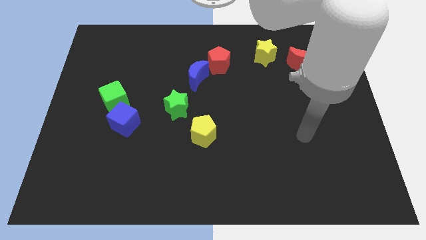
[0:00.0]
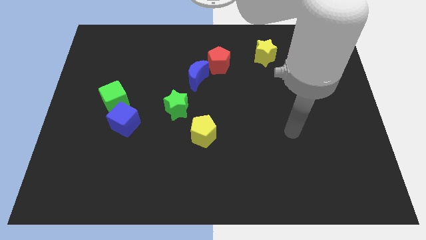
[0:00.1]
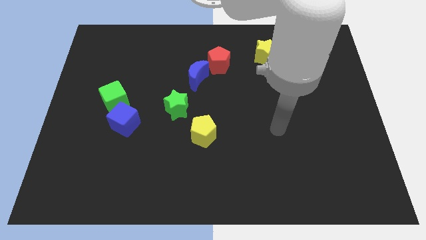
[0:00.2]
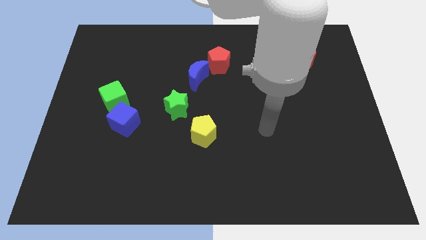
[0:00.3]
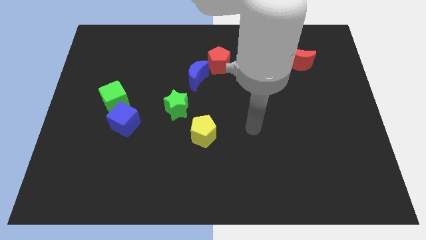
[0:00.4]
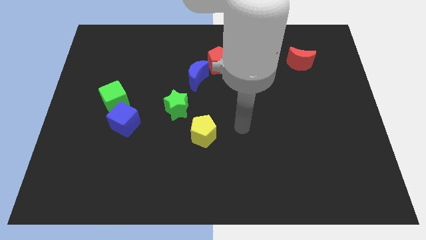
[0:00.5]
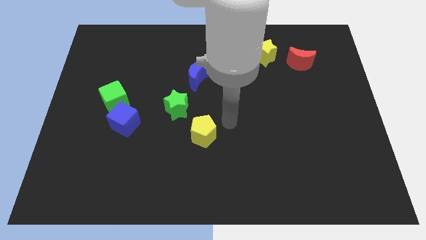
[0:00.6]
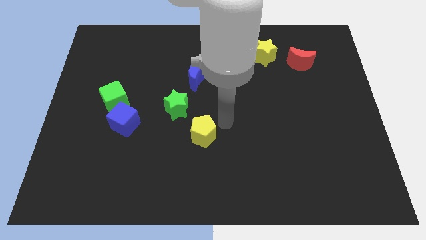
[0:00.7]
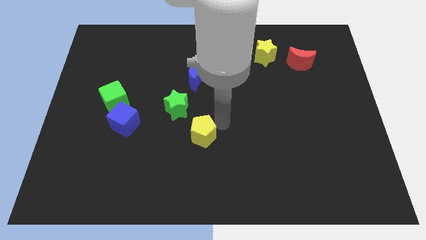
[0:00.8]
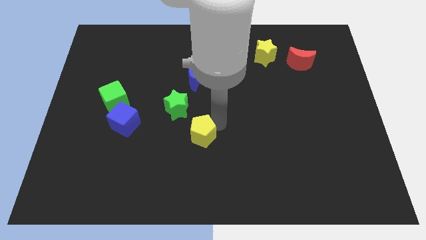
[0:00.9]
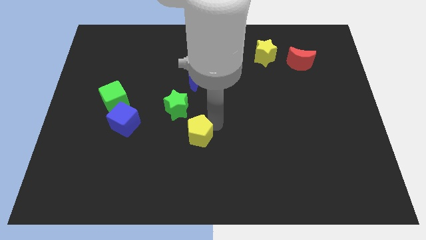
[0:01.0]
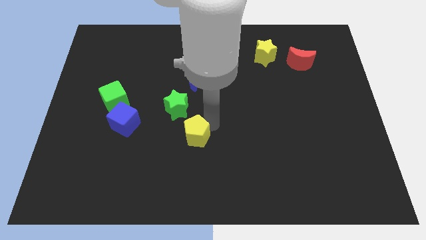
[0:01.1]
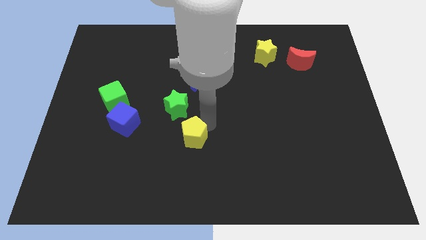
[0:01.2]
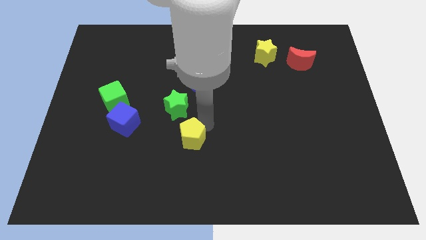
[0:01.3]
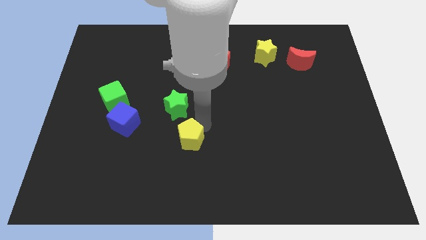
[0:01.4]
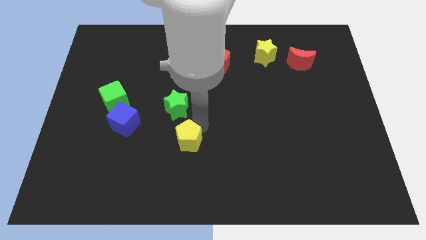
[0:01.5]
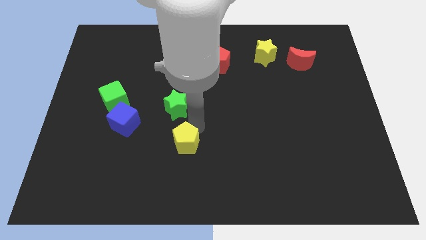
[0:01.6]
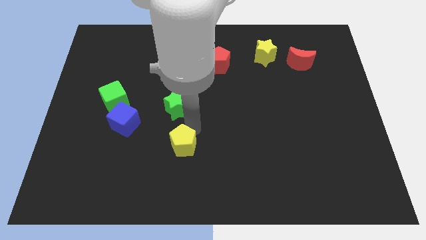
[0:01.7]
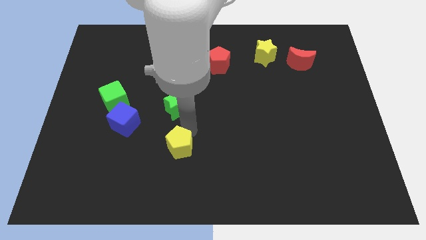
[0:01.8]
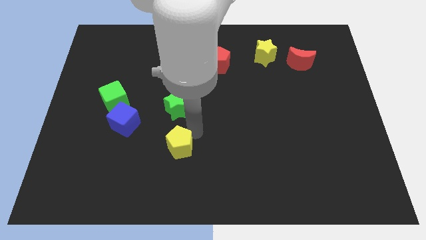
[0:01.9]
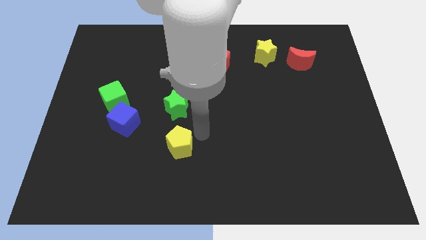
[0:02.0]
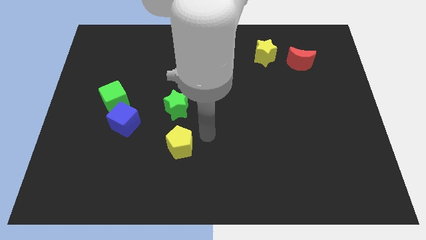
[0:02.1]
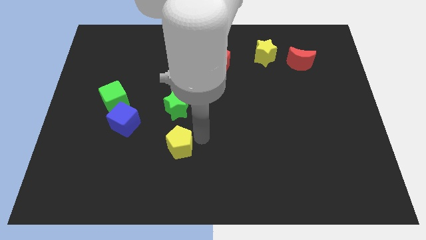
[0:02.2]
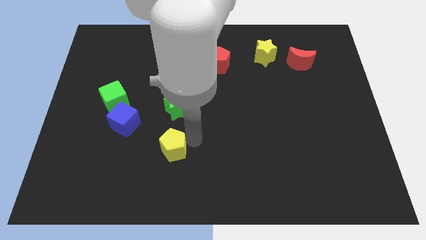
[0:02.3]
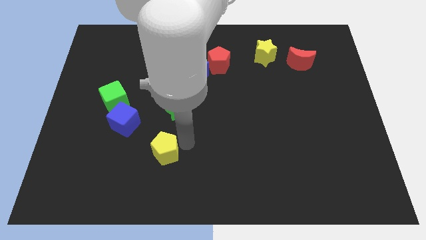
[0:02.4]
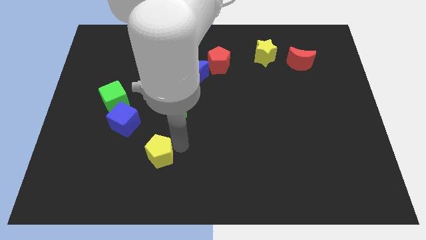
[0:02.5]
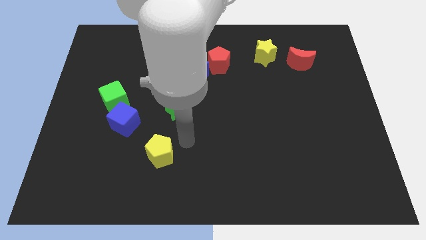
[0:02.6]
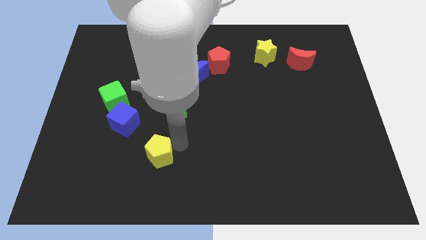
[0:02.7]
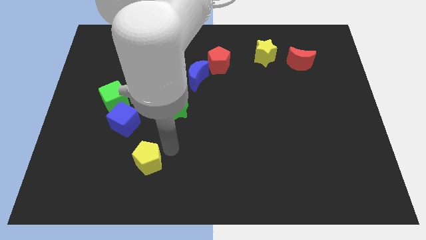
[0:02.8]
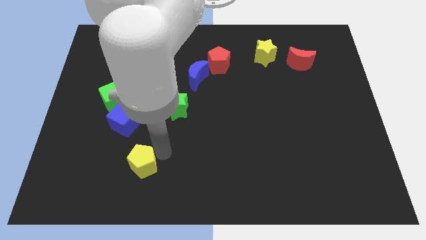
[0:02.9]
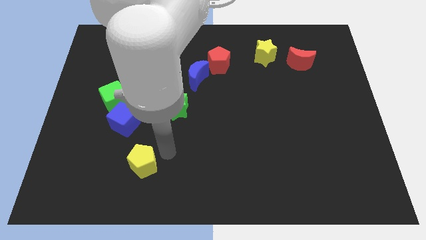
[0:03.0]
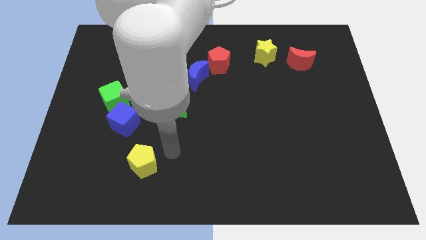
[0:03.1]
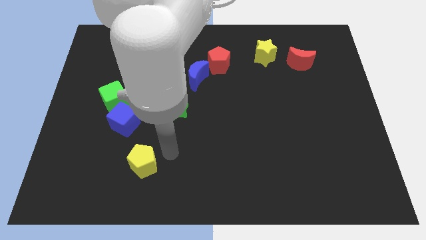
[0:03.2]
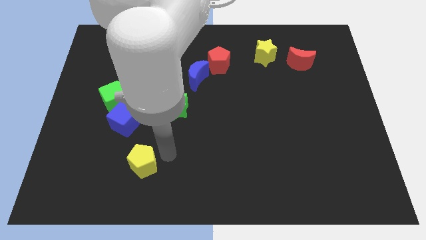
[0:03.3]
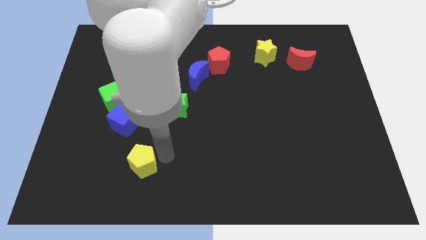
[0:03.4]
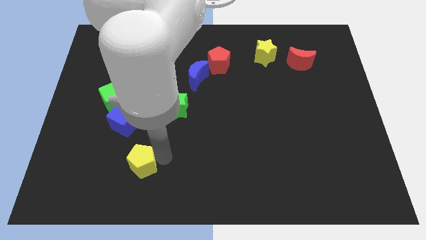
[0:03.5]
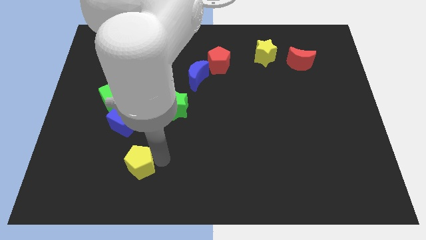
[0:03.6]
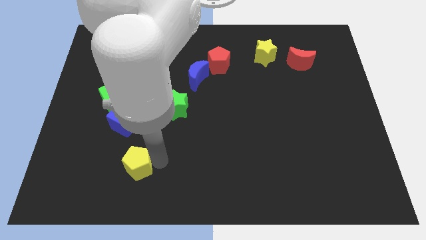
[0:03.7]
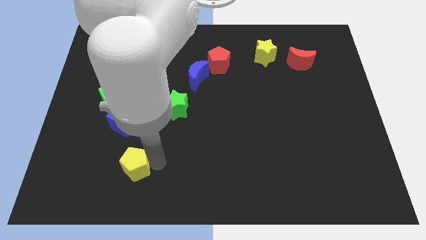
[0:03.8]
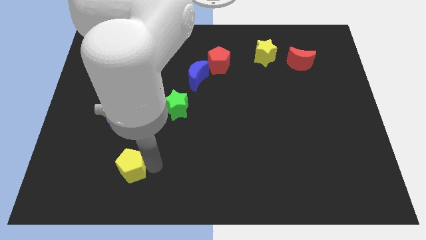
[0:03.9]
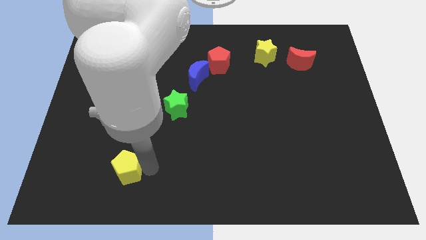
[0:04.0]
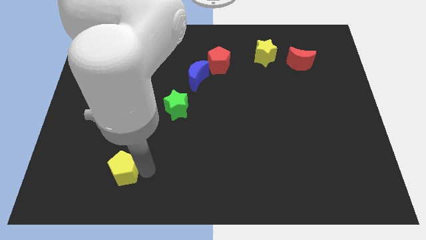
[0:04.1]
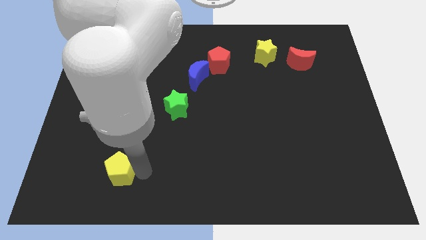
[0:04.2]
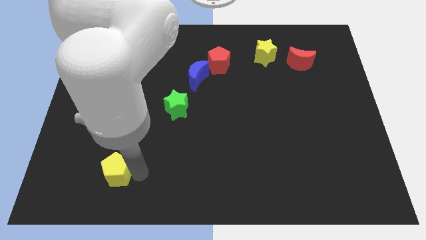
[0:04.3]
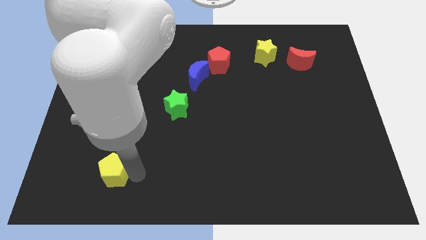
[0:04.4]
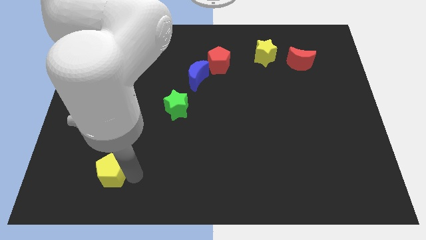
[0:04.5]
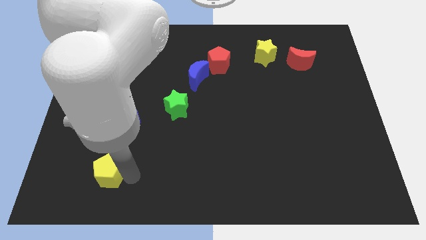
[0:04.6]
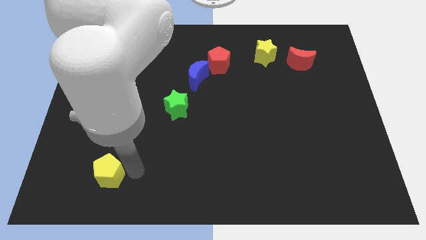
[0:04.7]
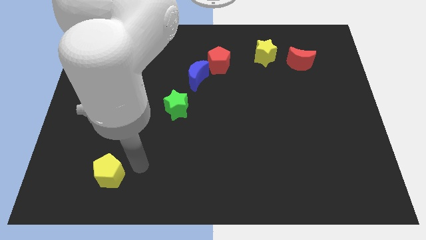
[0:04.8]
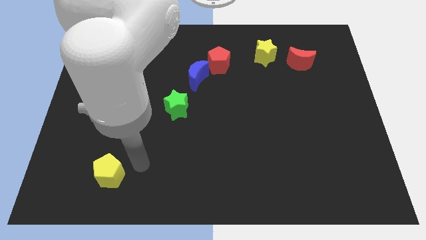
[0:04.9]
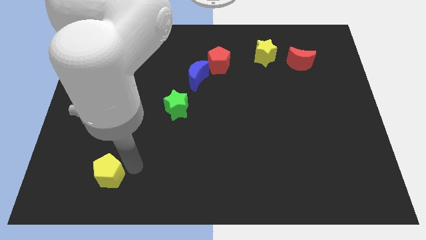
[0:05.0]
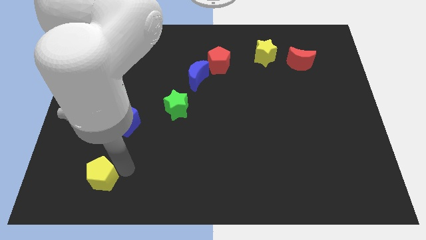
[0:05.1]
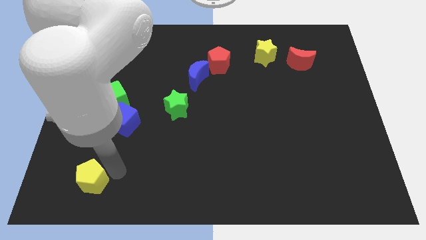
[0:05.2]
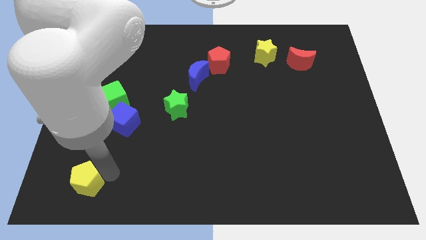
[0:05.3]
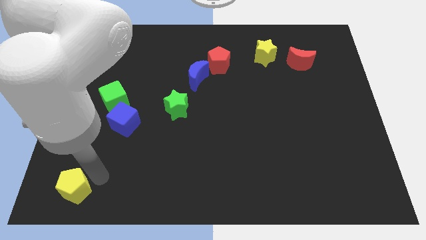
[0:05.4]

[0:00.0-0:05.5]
slide the yellow pentagon to the bottom left

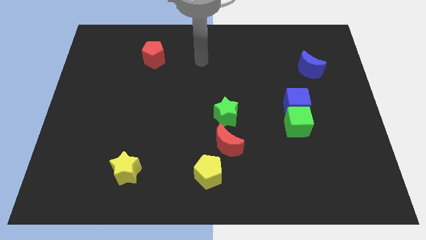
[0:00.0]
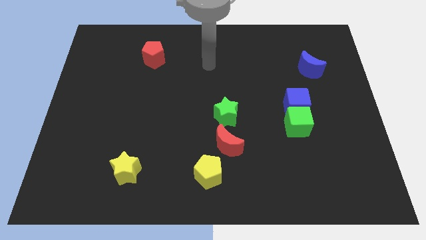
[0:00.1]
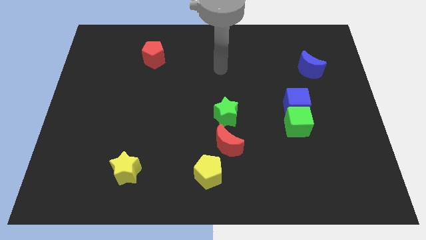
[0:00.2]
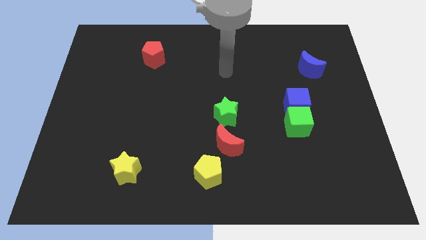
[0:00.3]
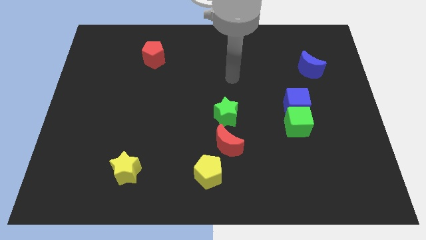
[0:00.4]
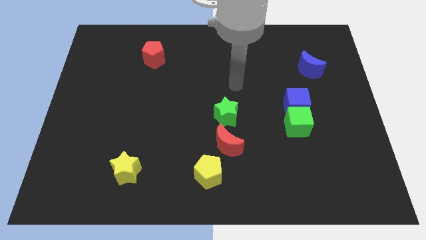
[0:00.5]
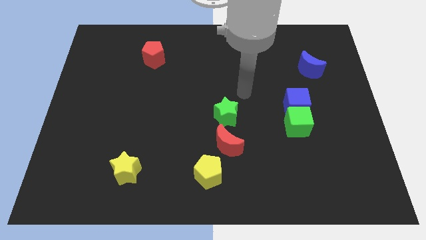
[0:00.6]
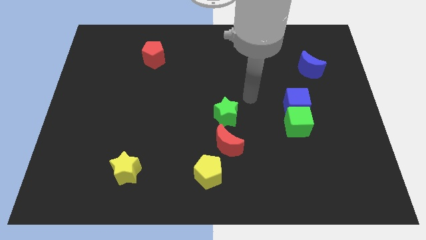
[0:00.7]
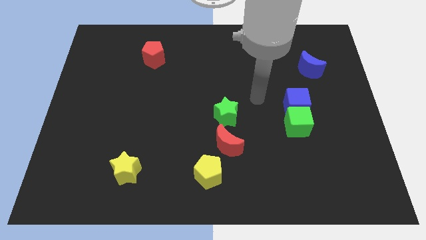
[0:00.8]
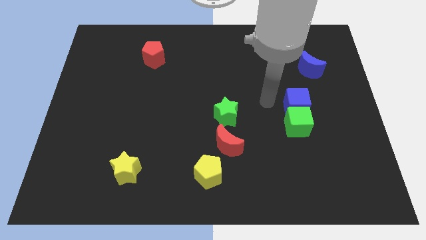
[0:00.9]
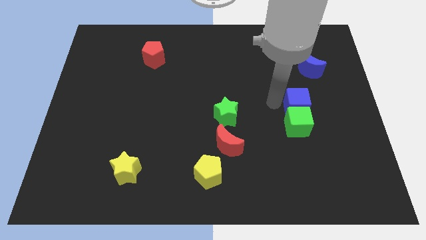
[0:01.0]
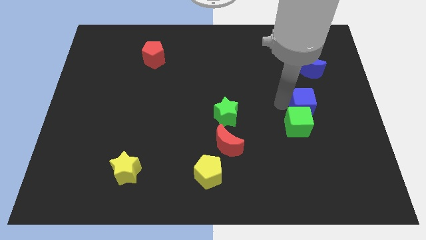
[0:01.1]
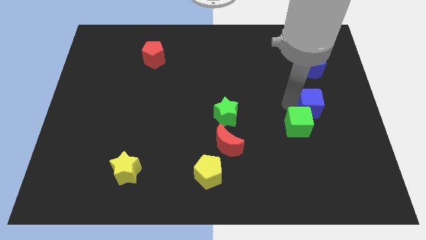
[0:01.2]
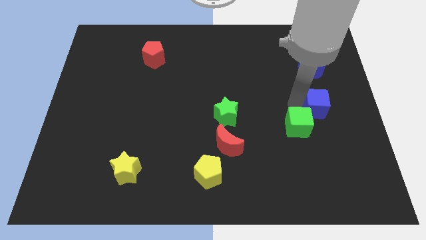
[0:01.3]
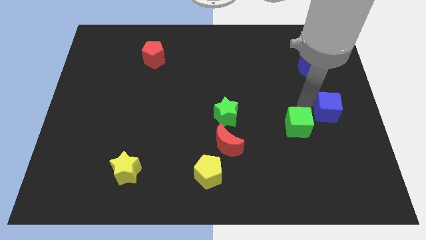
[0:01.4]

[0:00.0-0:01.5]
put the blue cube to the center right
